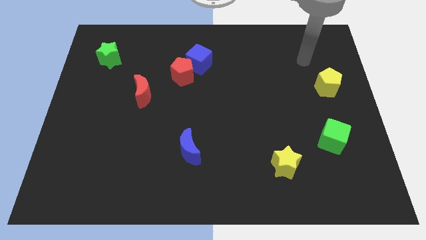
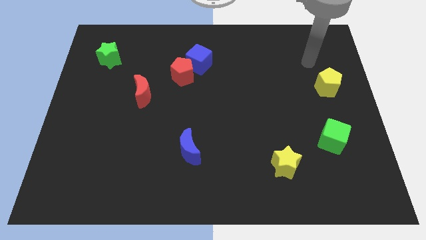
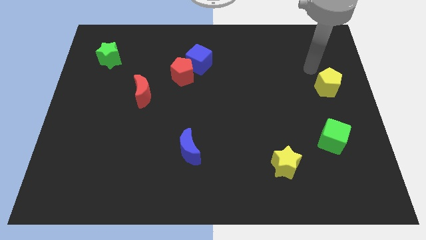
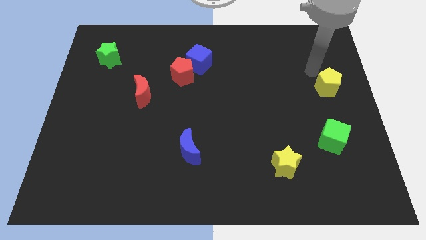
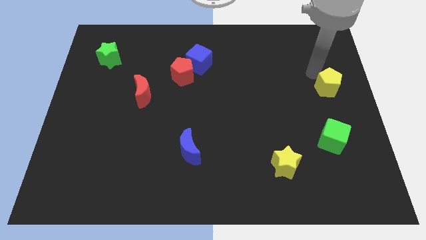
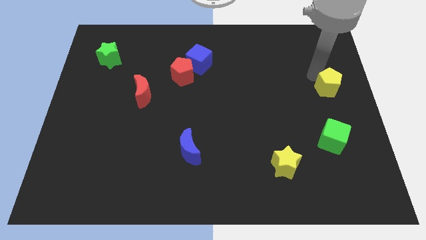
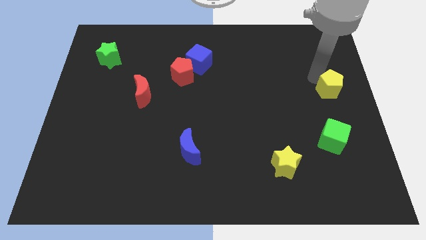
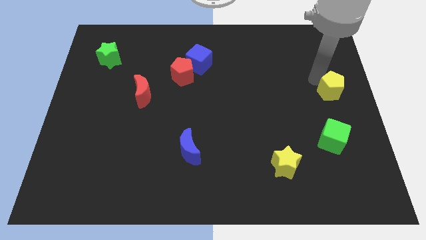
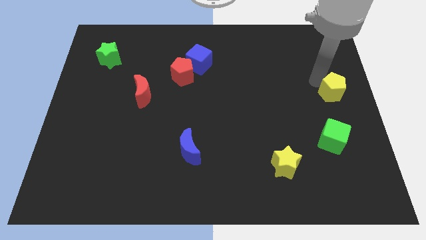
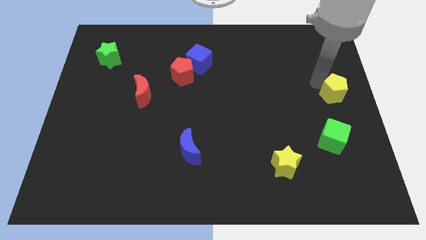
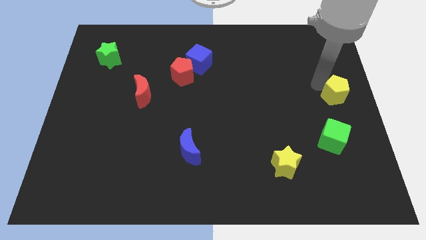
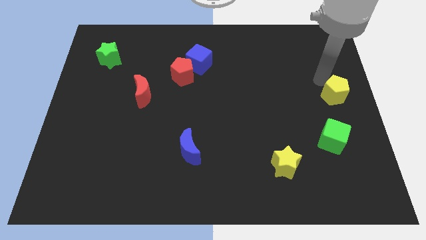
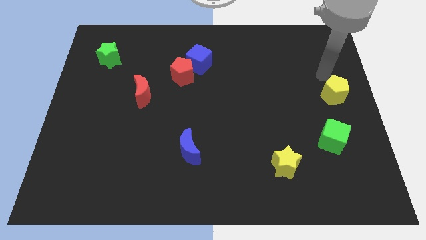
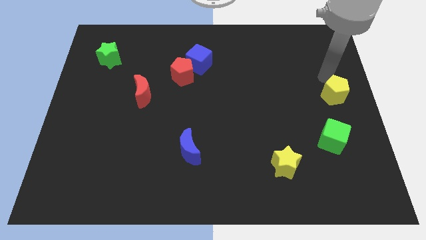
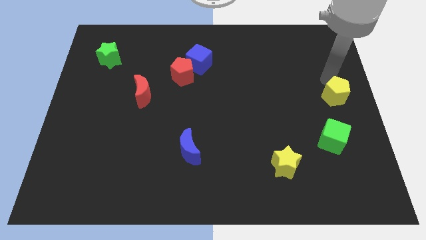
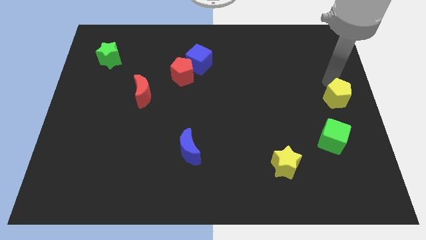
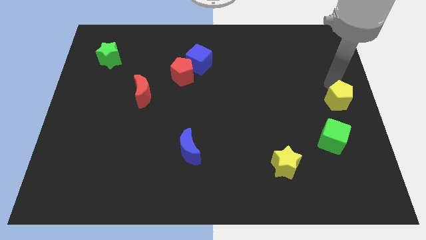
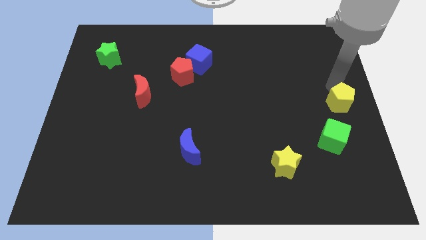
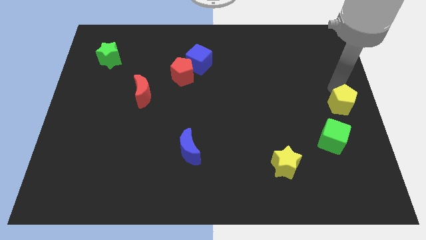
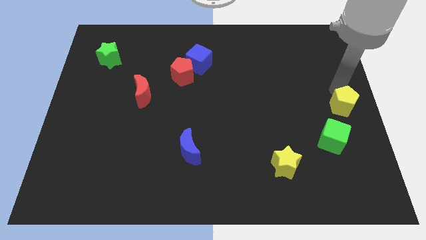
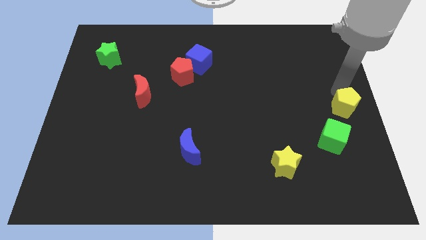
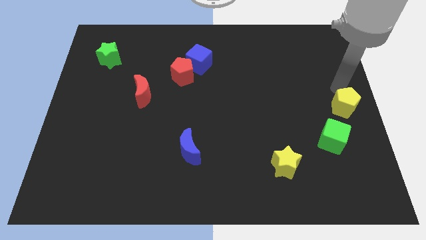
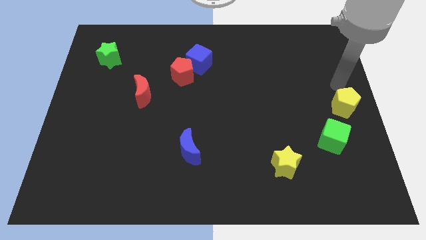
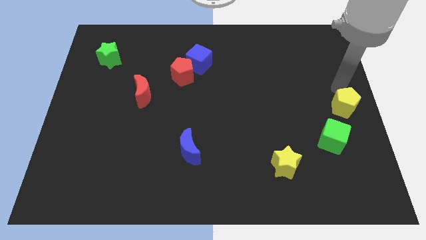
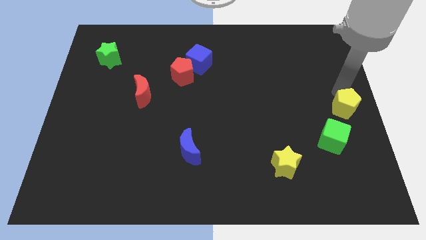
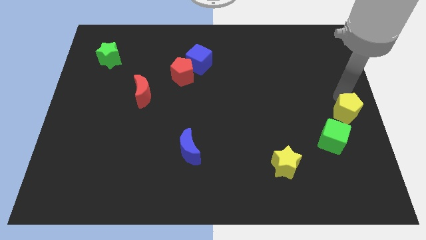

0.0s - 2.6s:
slightly move the yellow pentagon down

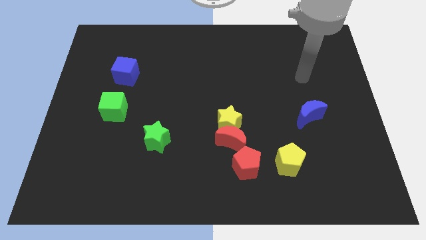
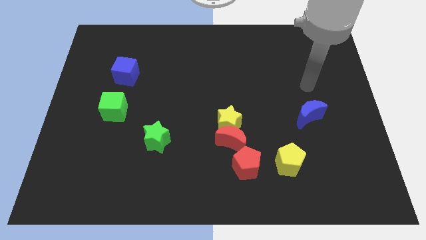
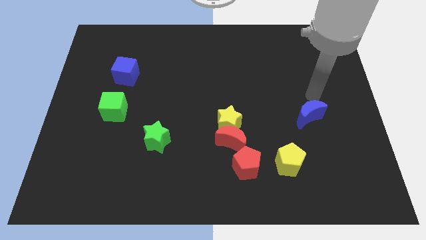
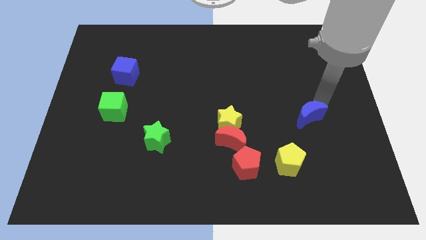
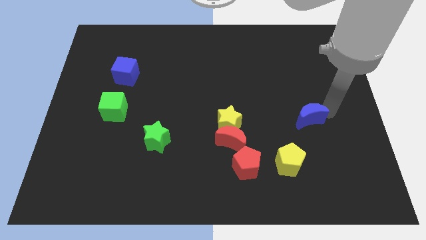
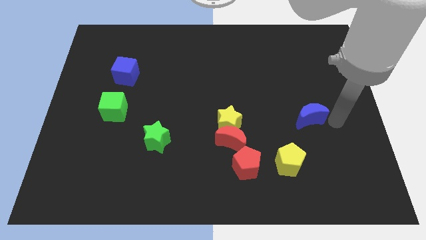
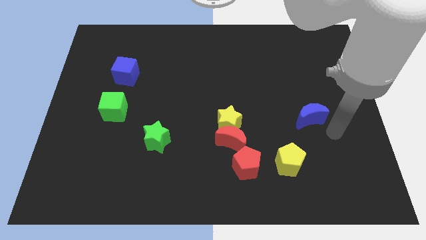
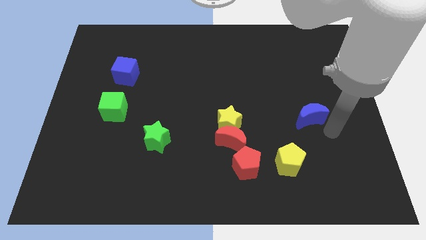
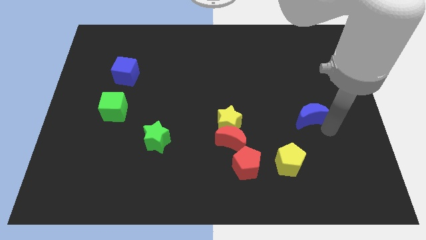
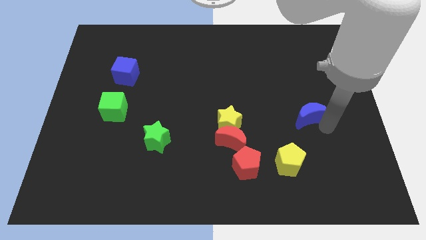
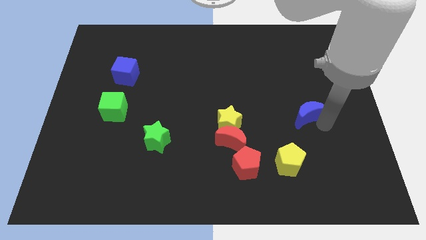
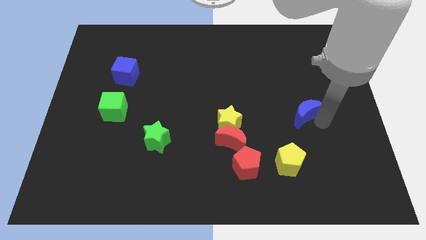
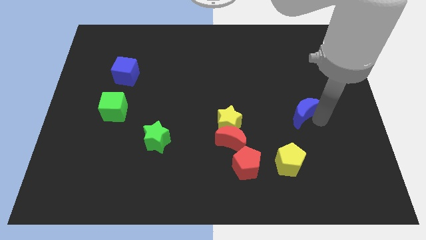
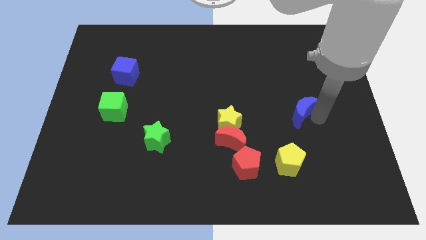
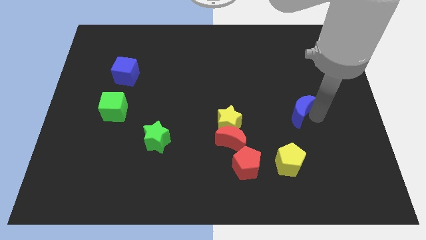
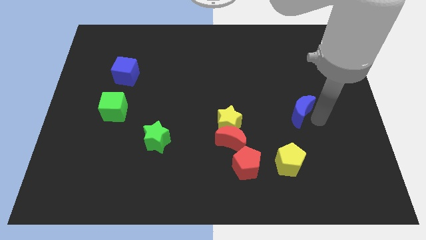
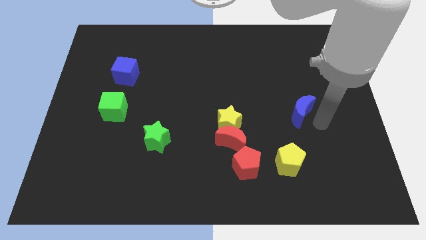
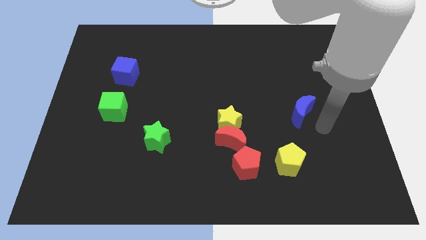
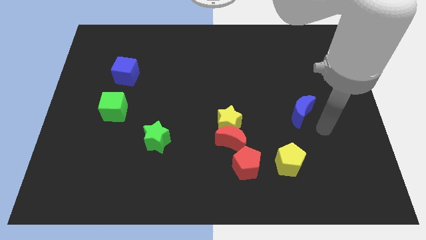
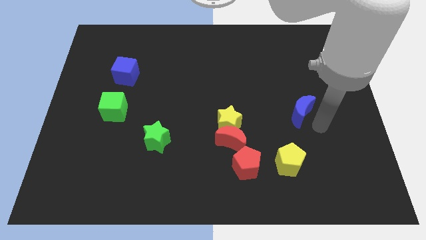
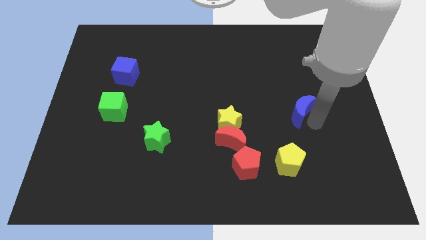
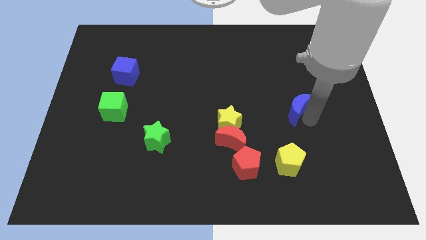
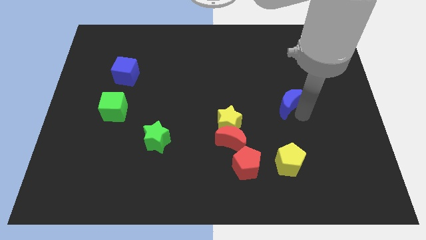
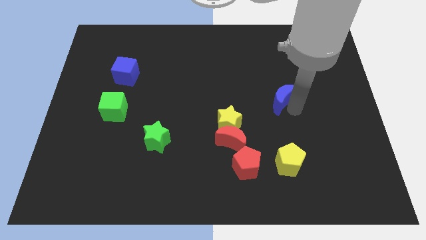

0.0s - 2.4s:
slightly slide the blue moon upwards and to the left diagonally

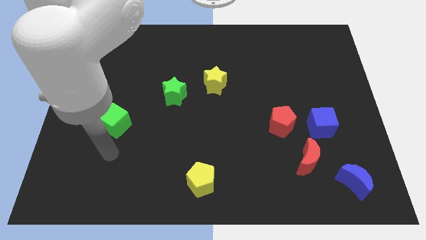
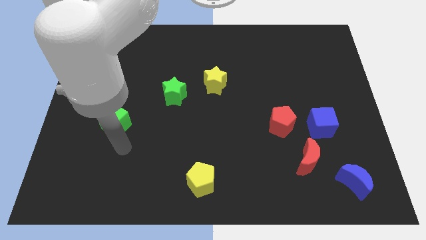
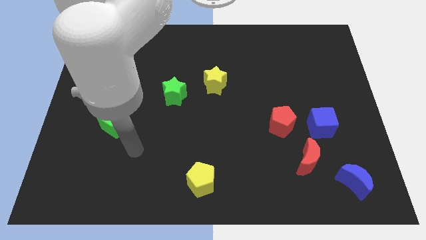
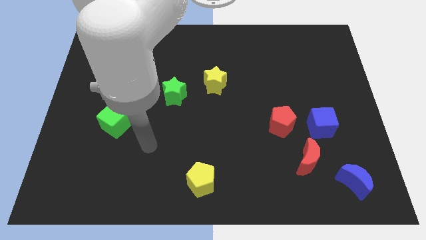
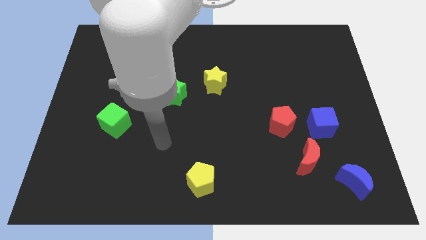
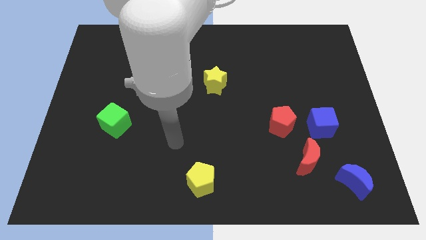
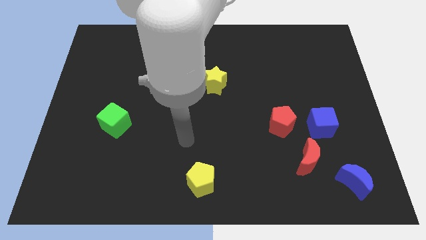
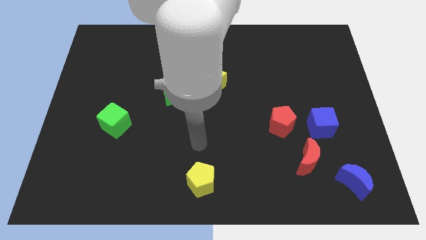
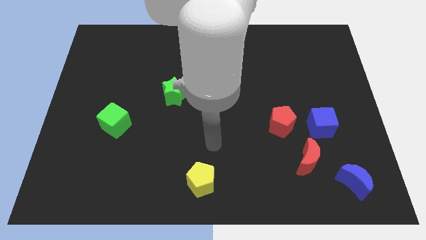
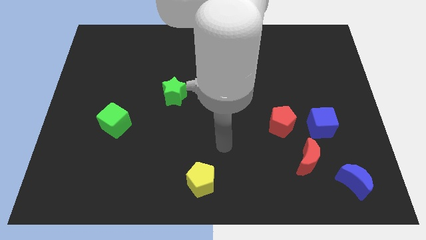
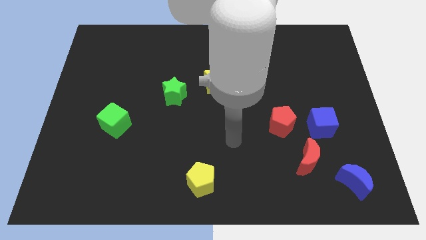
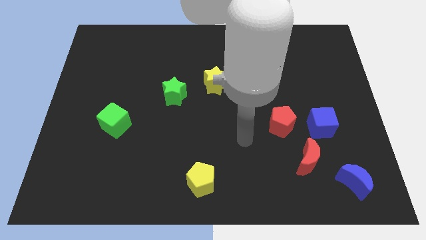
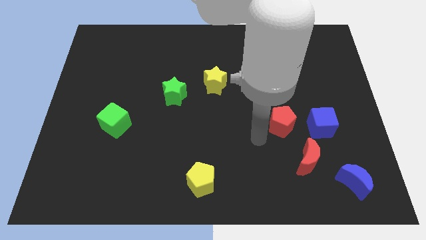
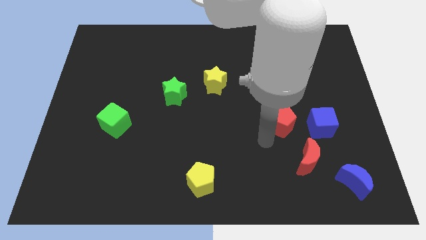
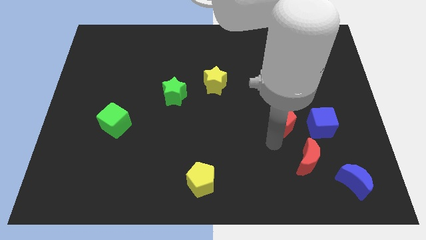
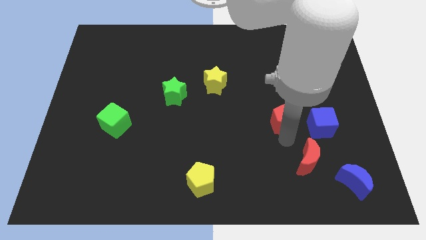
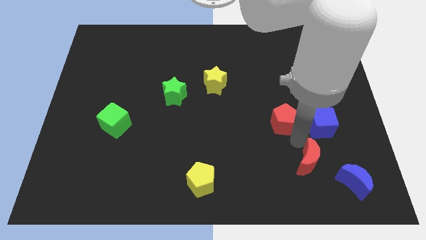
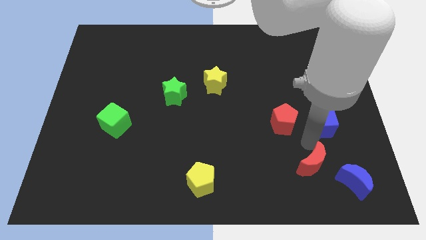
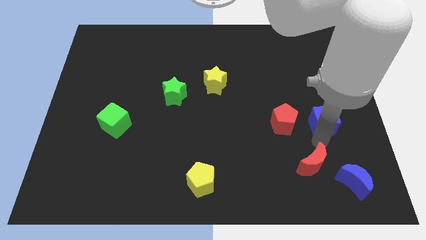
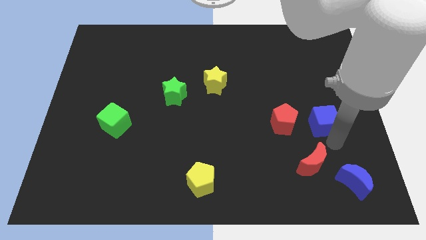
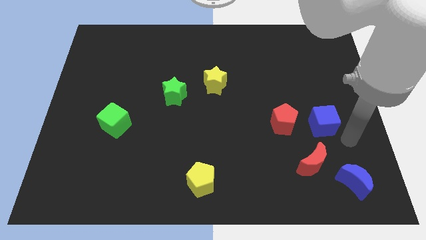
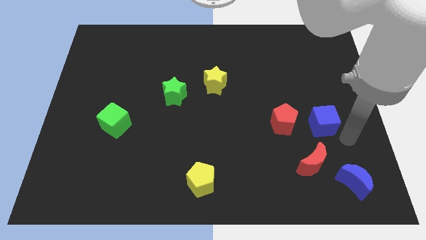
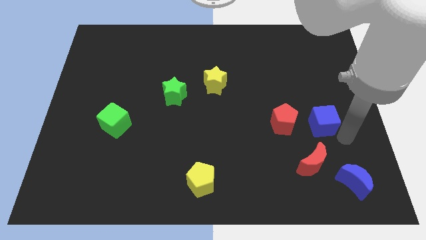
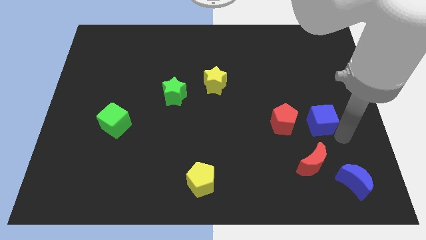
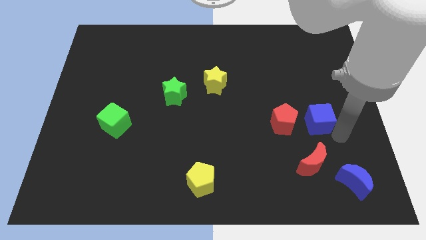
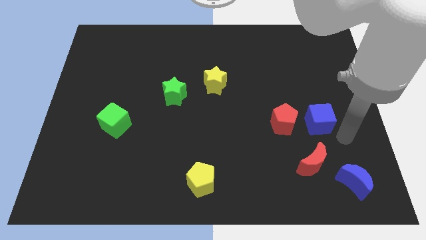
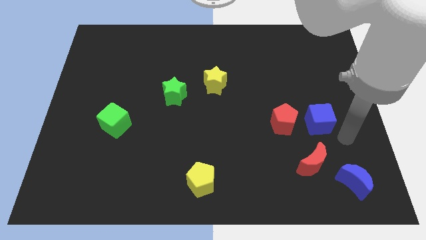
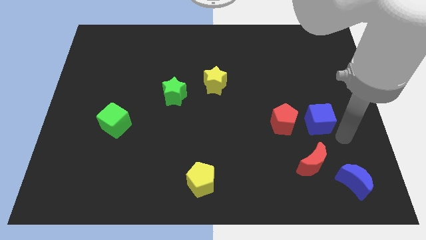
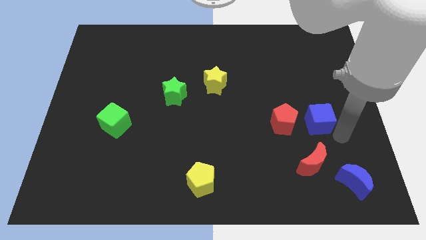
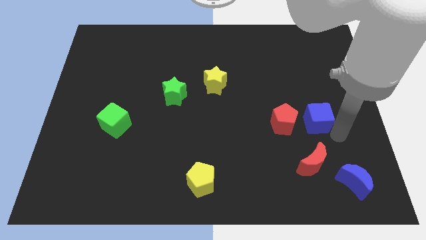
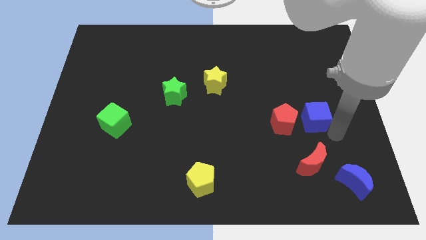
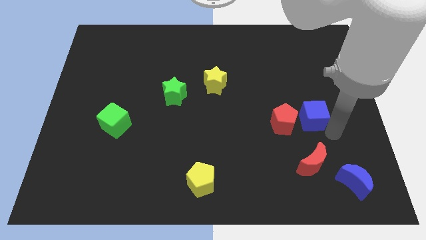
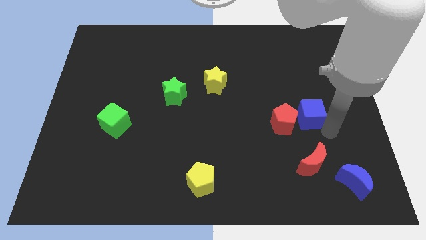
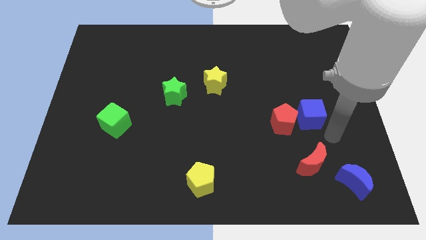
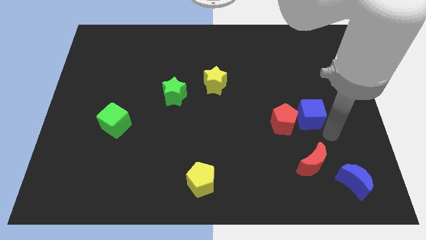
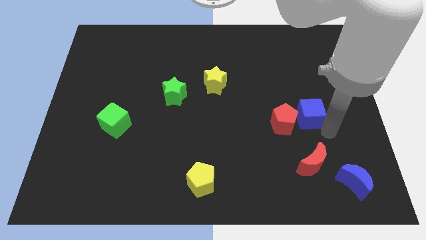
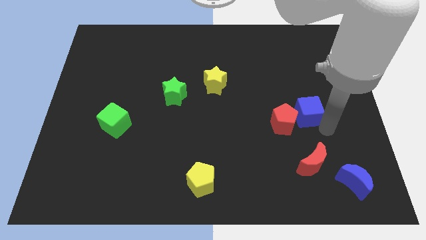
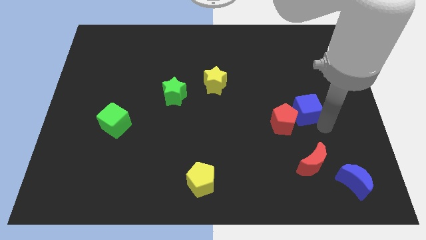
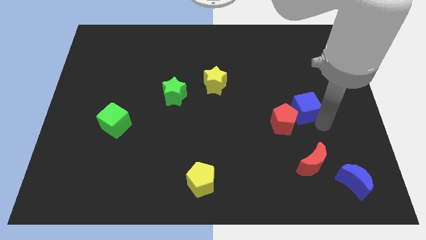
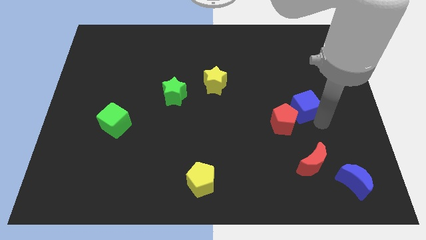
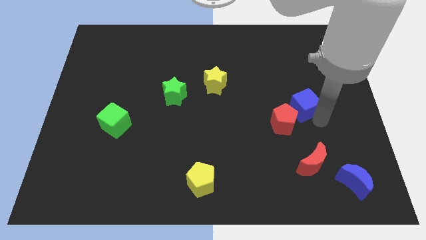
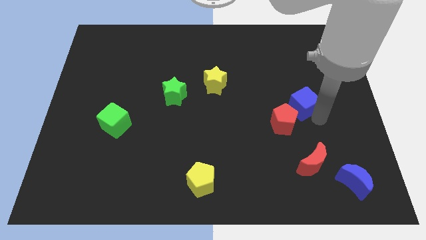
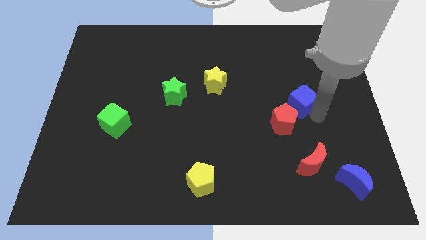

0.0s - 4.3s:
move the blue cube up and then left a little bit
